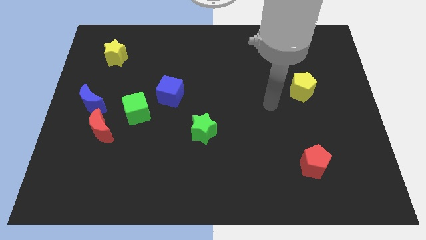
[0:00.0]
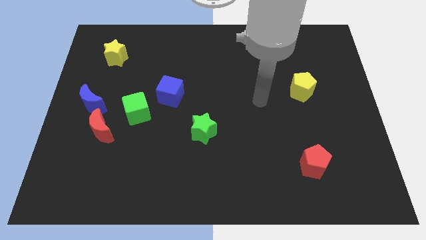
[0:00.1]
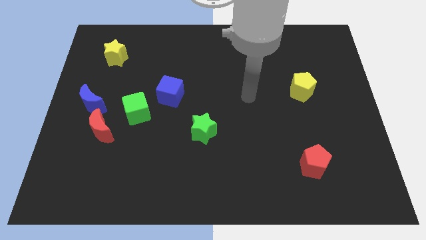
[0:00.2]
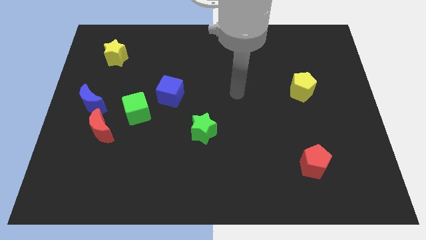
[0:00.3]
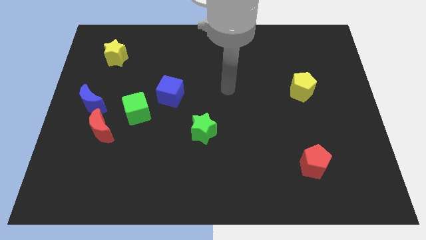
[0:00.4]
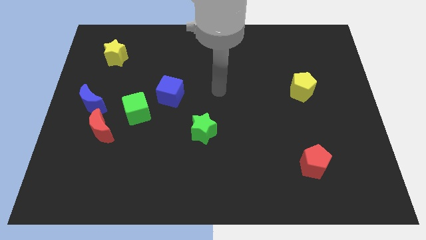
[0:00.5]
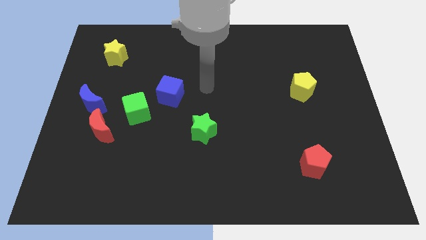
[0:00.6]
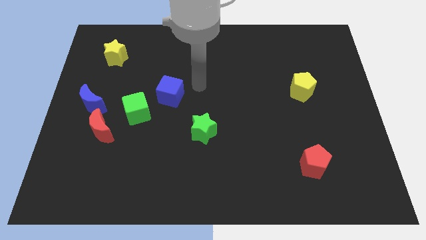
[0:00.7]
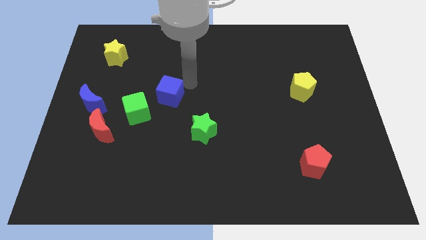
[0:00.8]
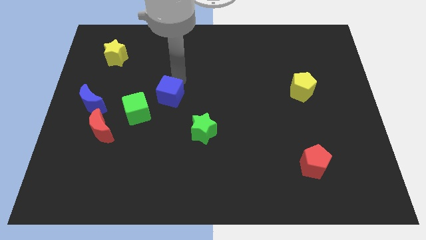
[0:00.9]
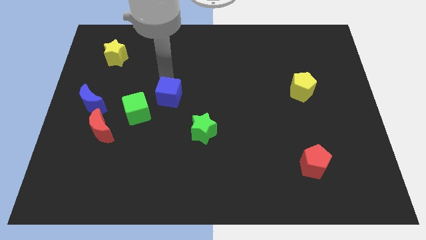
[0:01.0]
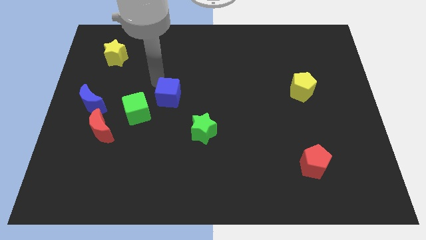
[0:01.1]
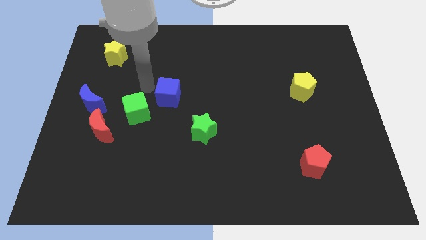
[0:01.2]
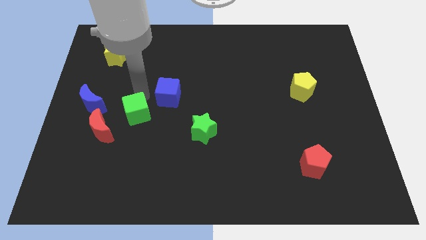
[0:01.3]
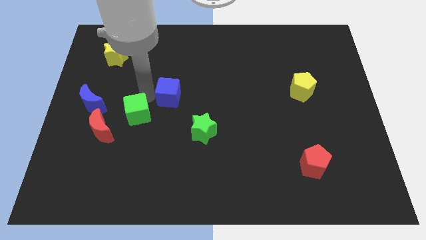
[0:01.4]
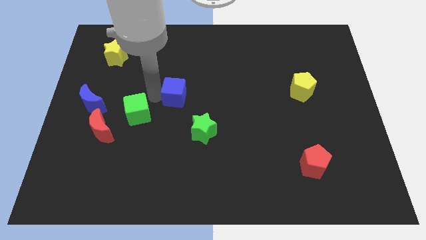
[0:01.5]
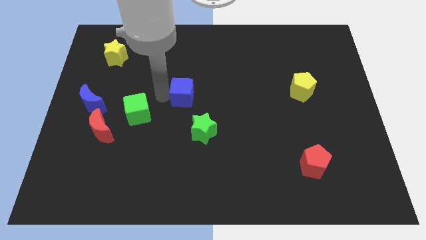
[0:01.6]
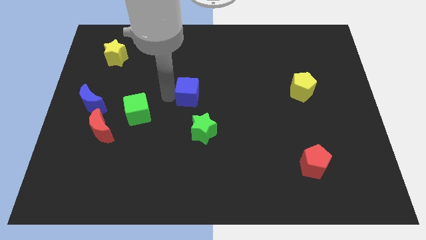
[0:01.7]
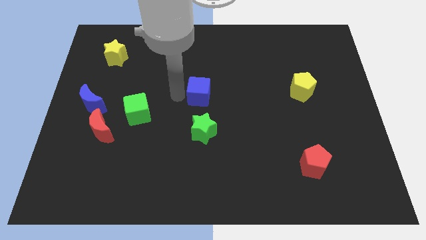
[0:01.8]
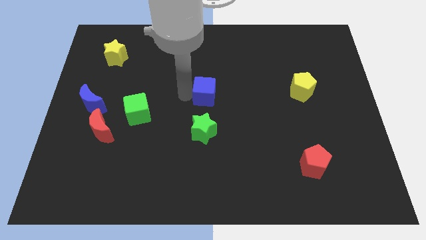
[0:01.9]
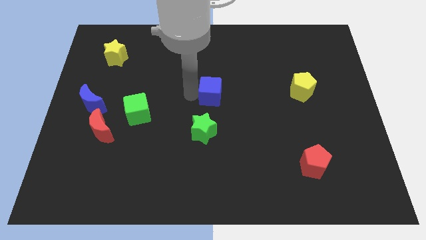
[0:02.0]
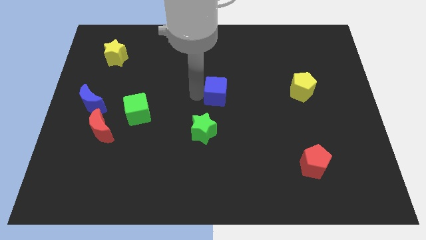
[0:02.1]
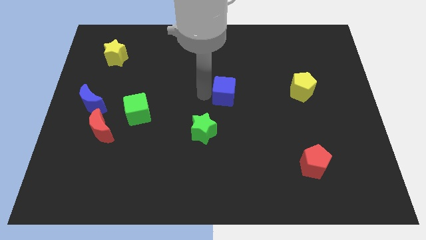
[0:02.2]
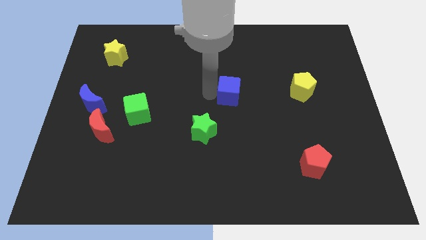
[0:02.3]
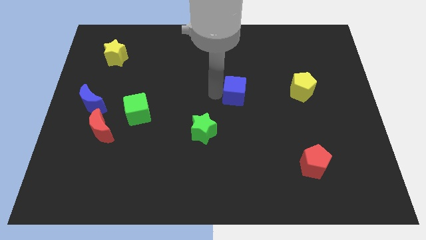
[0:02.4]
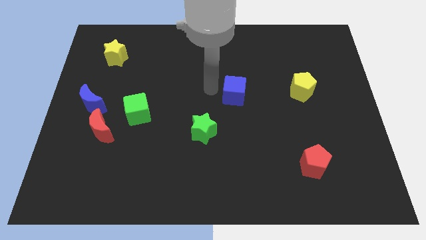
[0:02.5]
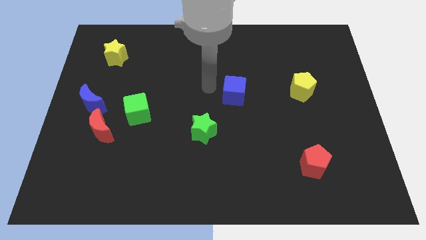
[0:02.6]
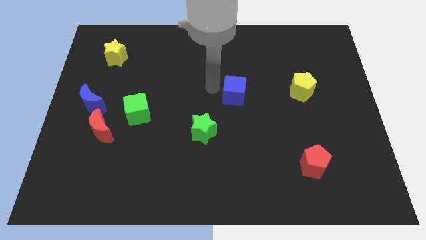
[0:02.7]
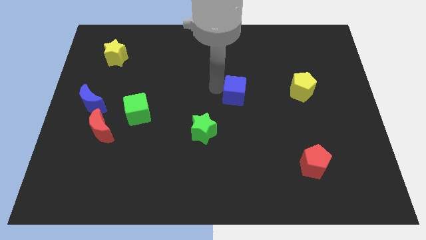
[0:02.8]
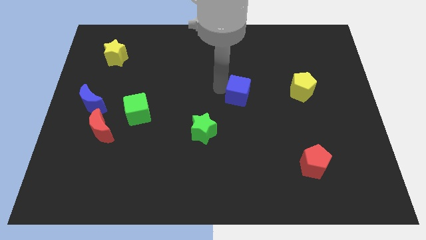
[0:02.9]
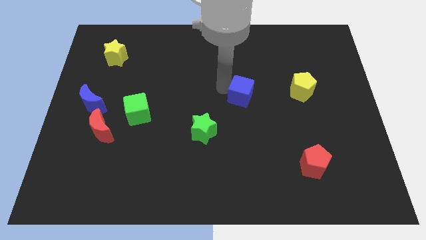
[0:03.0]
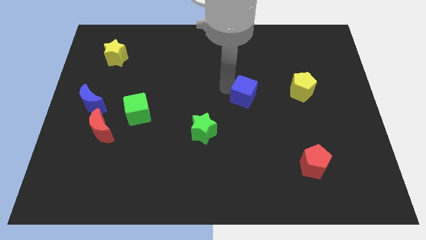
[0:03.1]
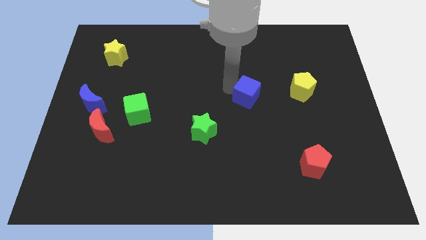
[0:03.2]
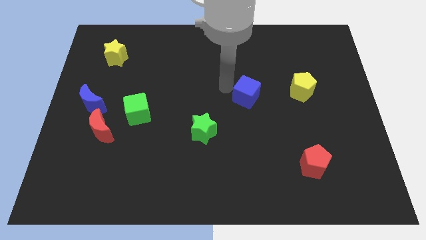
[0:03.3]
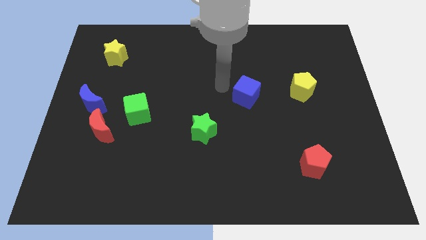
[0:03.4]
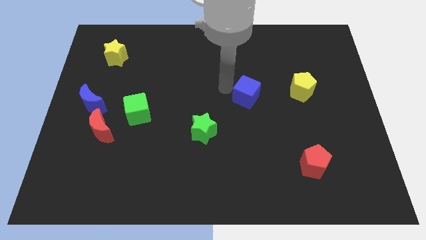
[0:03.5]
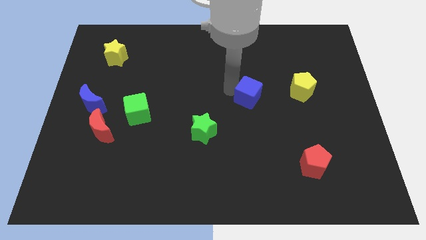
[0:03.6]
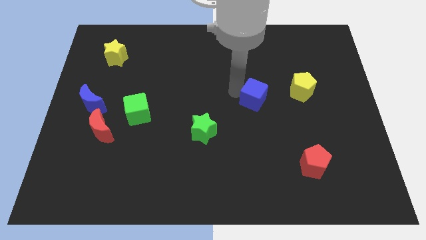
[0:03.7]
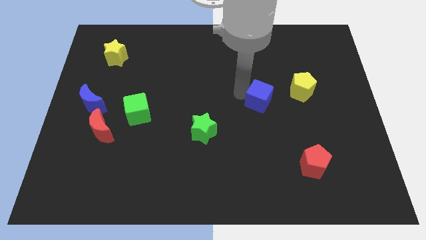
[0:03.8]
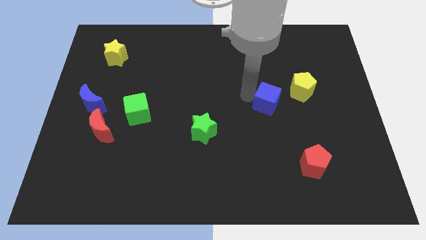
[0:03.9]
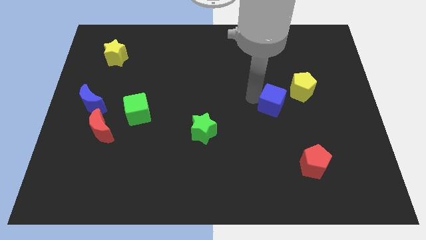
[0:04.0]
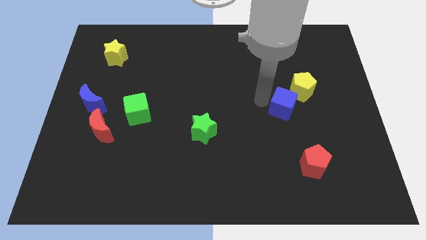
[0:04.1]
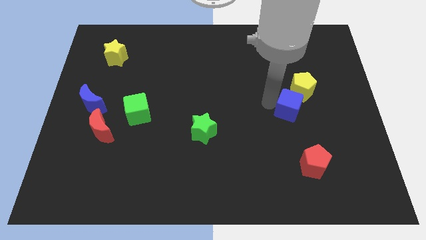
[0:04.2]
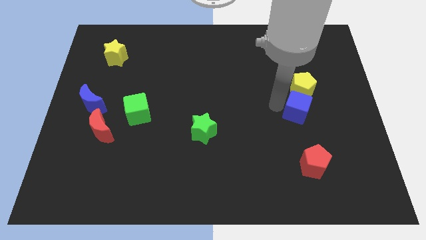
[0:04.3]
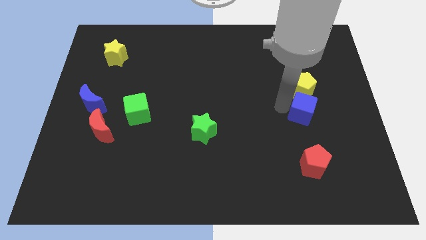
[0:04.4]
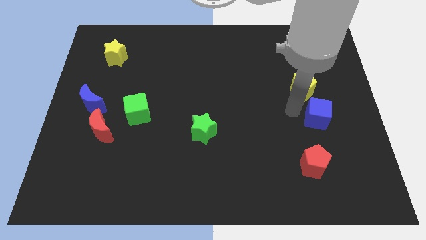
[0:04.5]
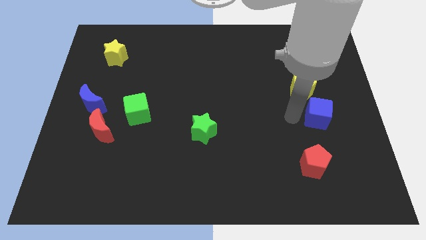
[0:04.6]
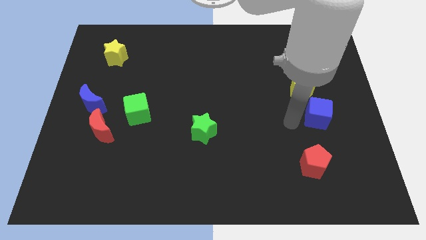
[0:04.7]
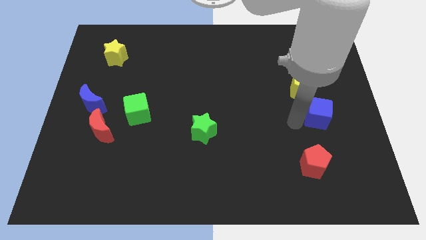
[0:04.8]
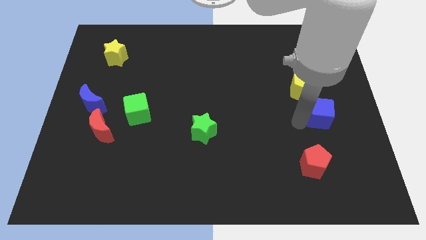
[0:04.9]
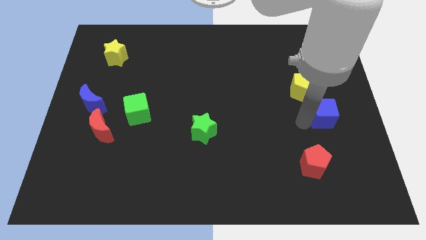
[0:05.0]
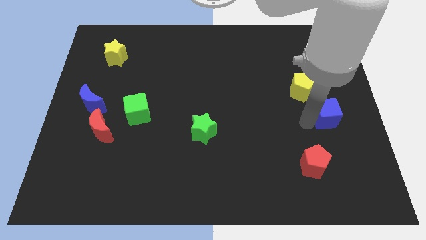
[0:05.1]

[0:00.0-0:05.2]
put the blue cube to the center right

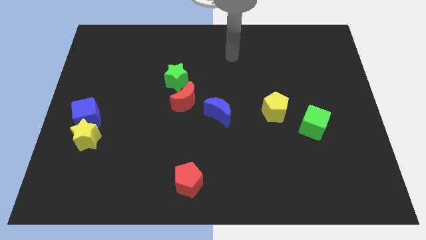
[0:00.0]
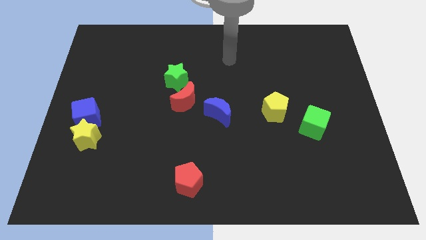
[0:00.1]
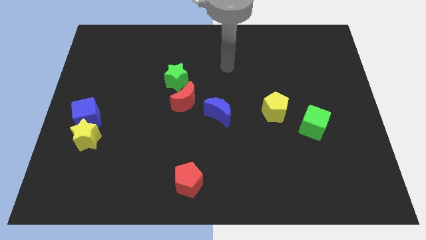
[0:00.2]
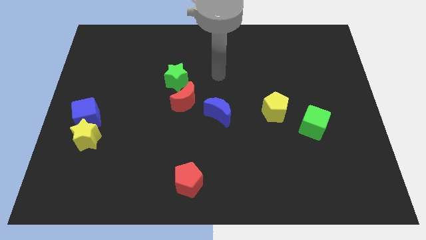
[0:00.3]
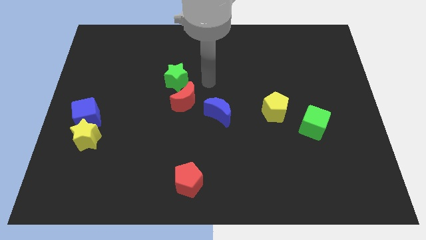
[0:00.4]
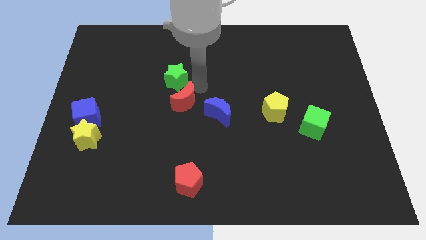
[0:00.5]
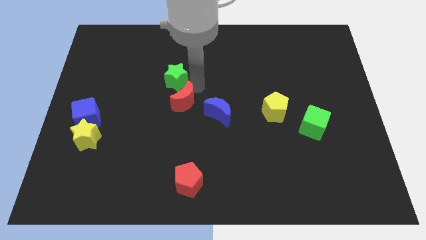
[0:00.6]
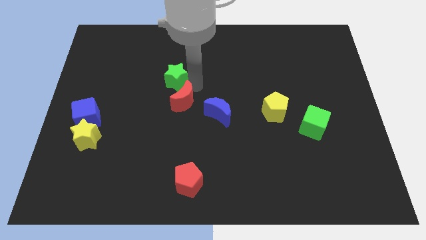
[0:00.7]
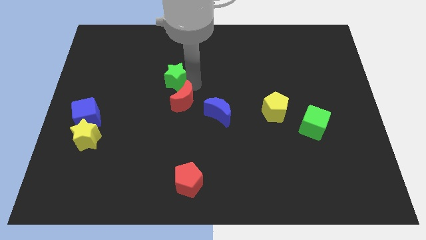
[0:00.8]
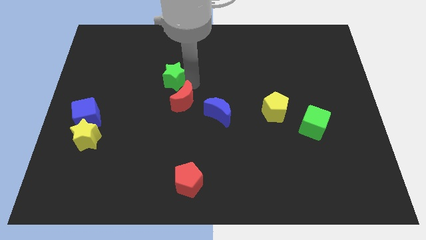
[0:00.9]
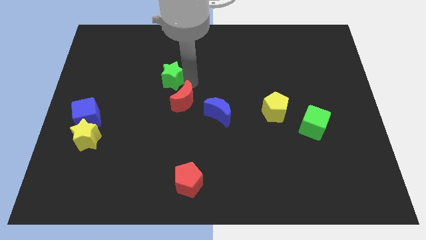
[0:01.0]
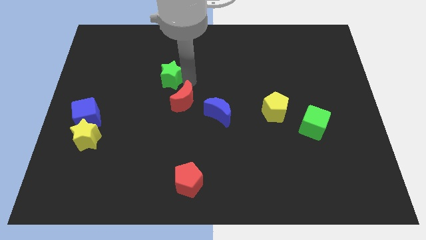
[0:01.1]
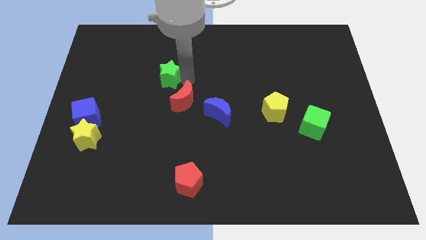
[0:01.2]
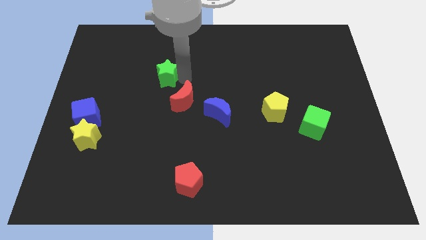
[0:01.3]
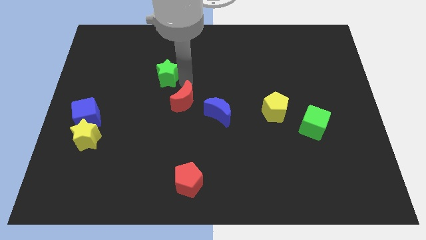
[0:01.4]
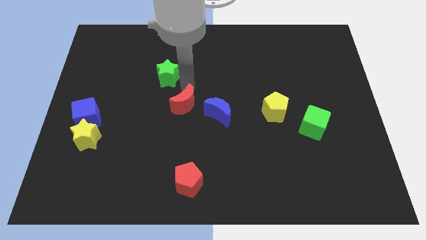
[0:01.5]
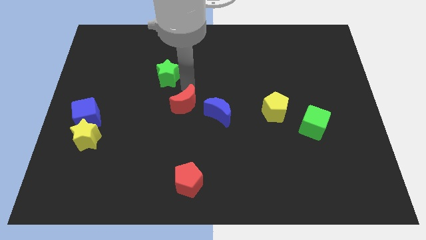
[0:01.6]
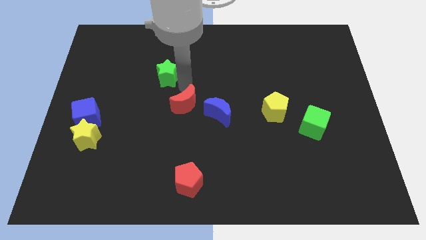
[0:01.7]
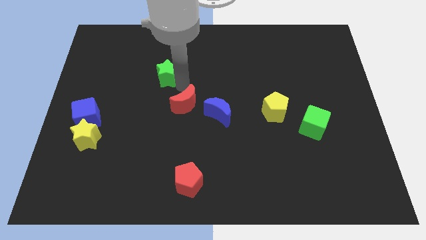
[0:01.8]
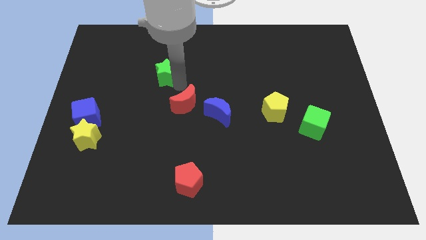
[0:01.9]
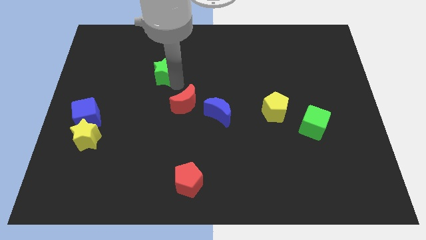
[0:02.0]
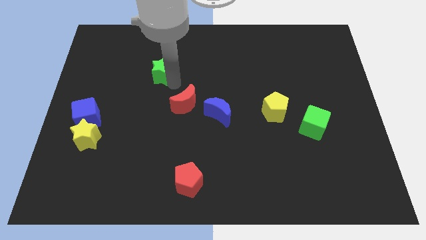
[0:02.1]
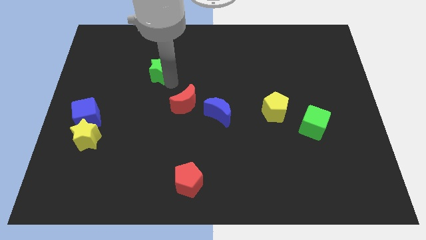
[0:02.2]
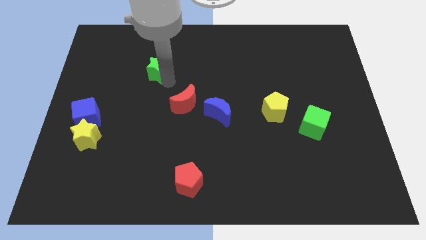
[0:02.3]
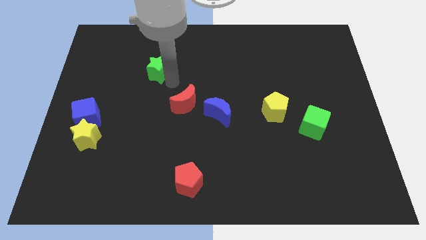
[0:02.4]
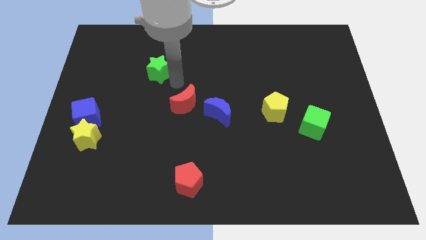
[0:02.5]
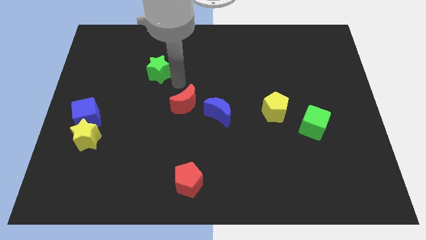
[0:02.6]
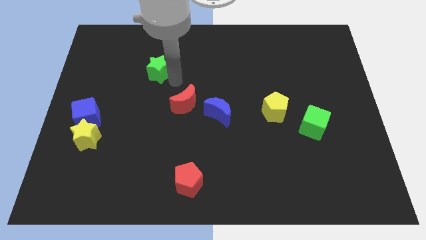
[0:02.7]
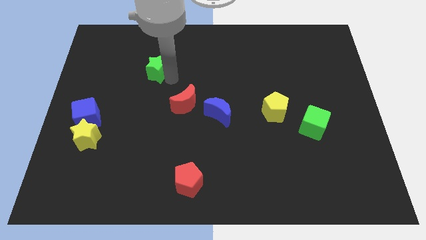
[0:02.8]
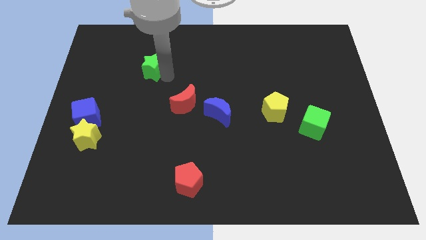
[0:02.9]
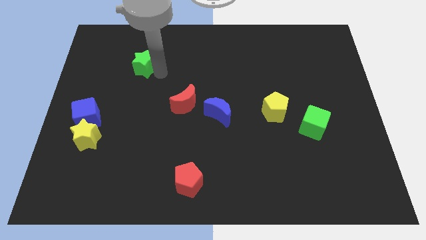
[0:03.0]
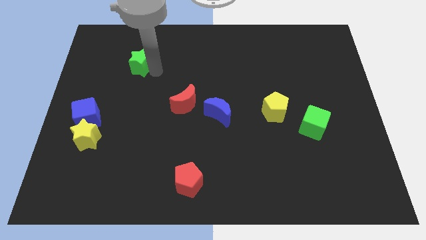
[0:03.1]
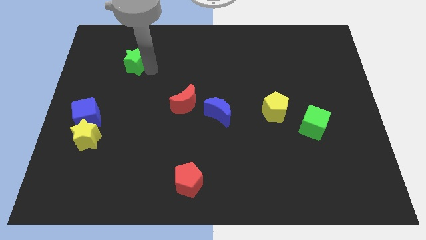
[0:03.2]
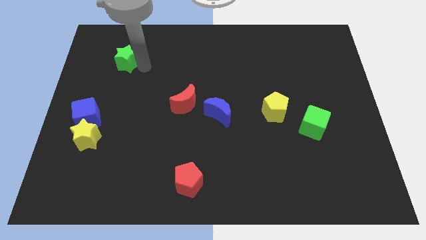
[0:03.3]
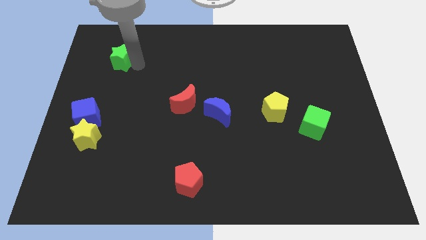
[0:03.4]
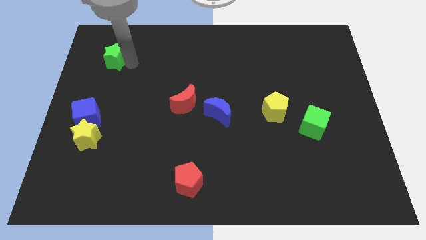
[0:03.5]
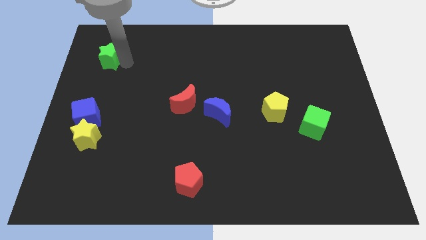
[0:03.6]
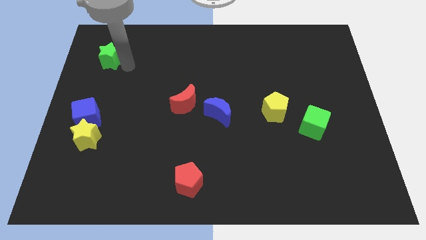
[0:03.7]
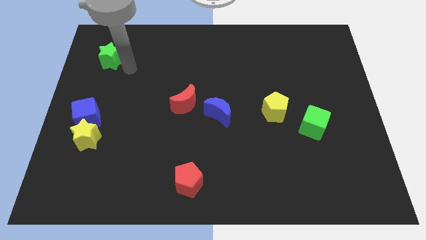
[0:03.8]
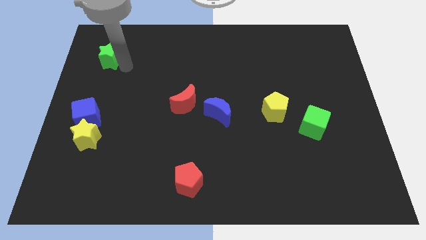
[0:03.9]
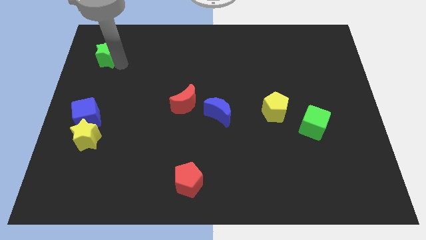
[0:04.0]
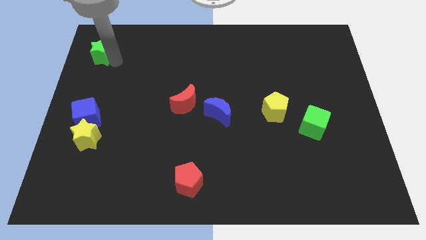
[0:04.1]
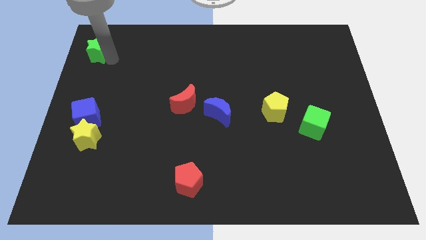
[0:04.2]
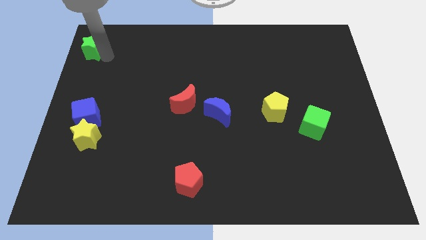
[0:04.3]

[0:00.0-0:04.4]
push the green star to the top left
